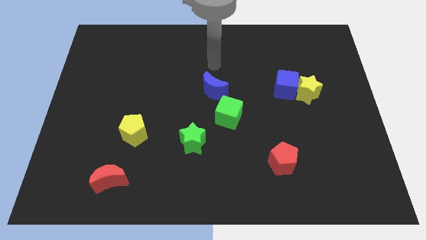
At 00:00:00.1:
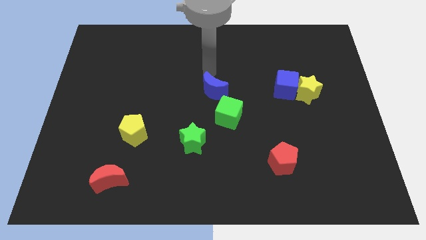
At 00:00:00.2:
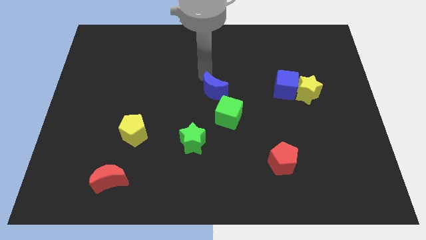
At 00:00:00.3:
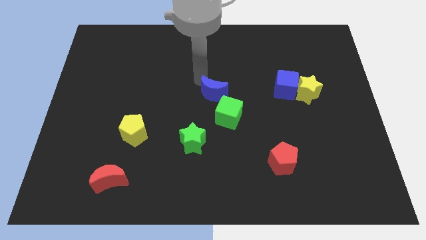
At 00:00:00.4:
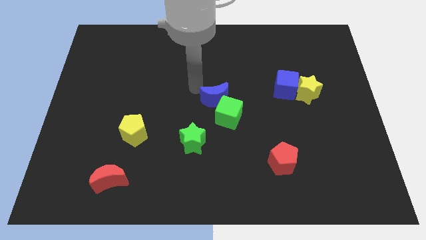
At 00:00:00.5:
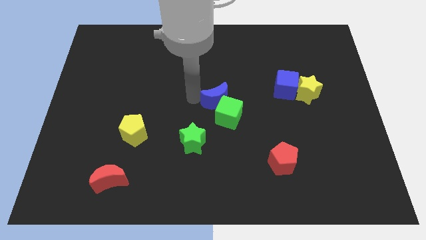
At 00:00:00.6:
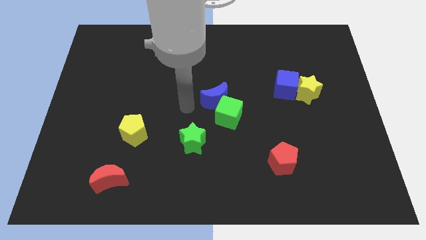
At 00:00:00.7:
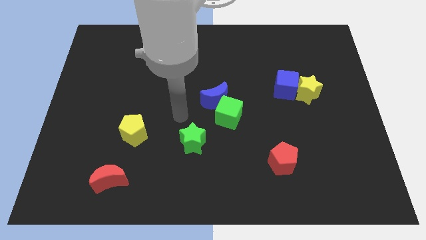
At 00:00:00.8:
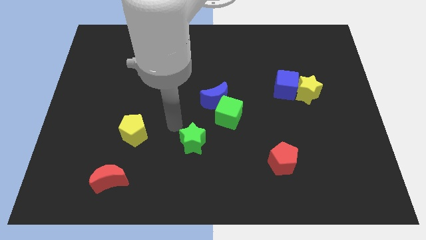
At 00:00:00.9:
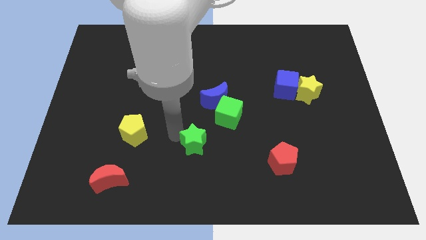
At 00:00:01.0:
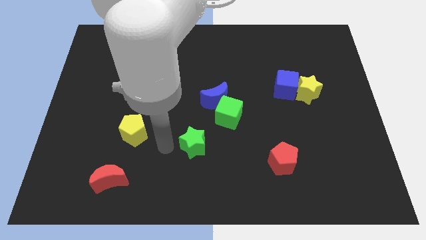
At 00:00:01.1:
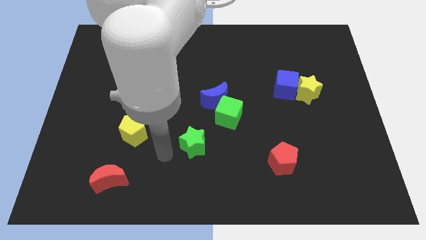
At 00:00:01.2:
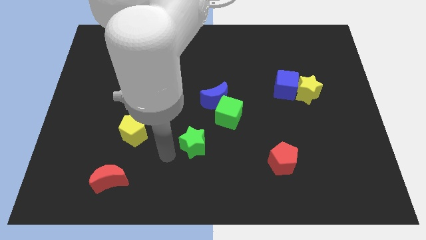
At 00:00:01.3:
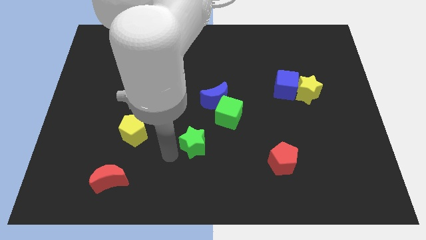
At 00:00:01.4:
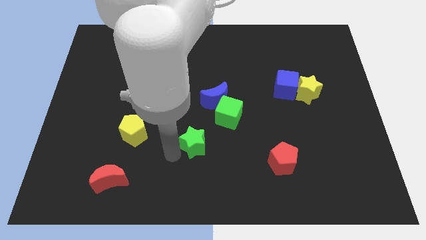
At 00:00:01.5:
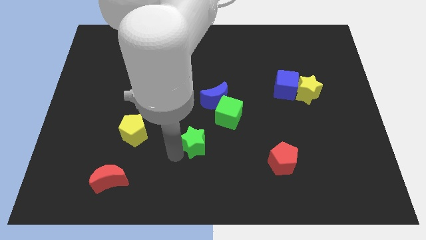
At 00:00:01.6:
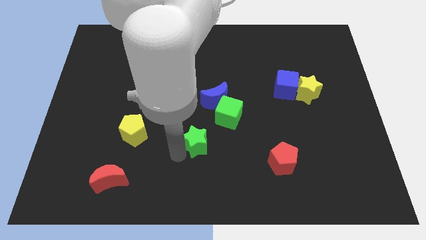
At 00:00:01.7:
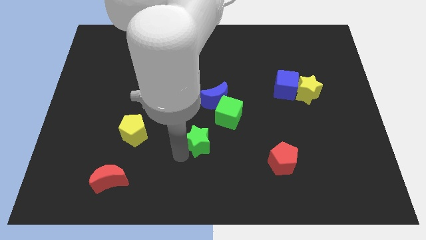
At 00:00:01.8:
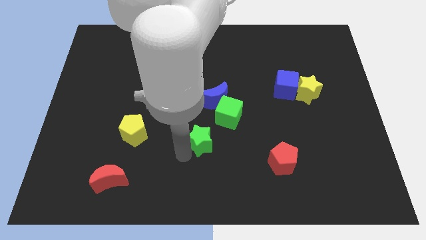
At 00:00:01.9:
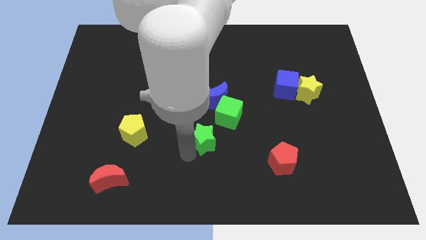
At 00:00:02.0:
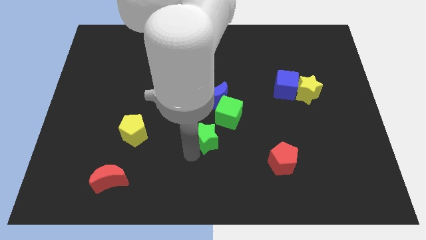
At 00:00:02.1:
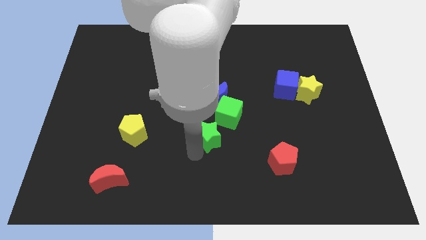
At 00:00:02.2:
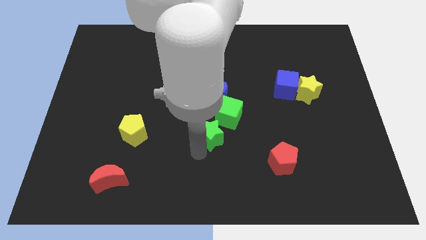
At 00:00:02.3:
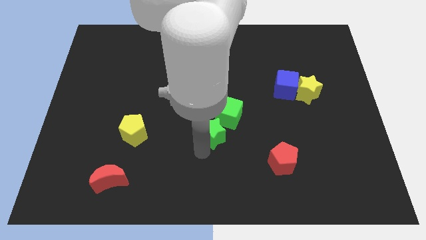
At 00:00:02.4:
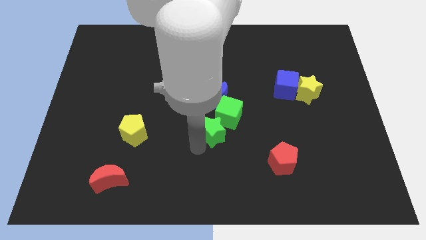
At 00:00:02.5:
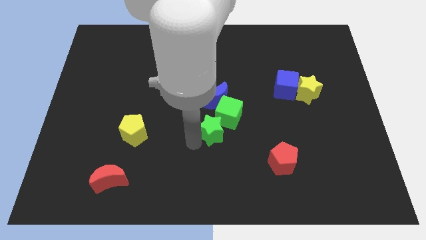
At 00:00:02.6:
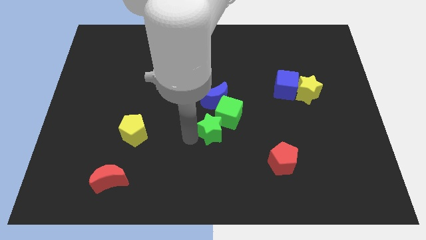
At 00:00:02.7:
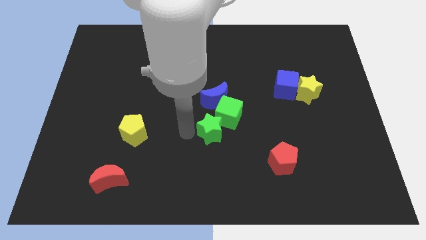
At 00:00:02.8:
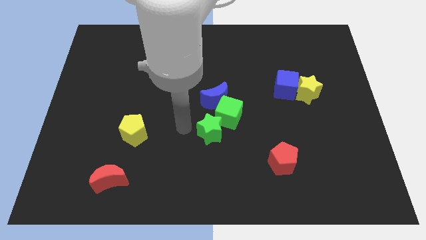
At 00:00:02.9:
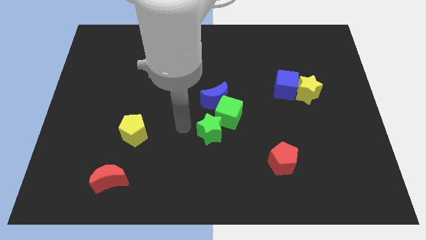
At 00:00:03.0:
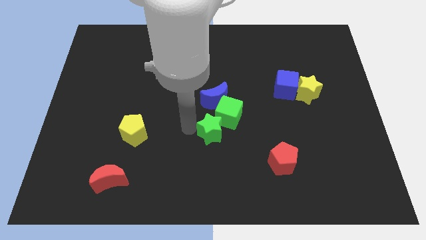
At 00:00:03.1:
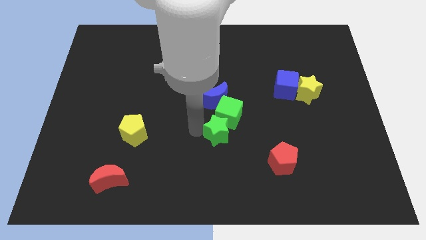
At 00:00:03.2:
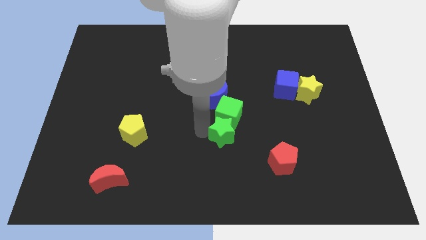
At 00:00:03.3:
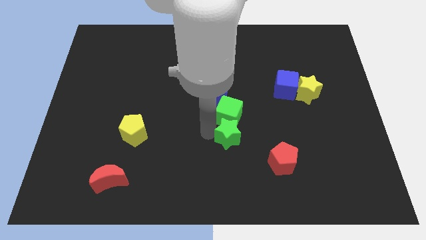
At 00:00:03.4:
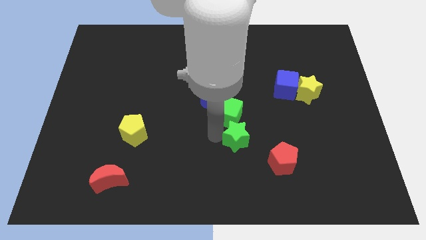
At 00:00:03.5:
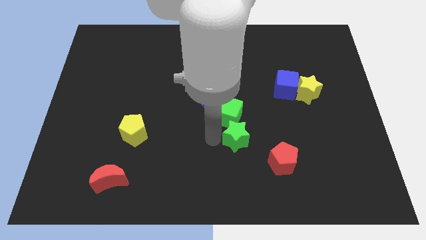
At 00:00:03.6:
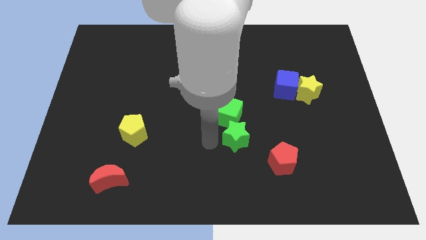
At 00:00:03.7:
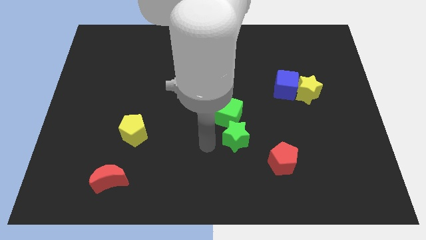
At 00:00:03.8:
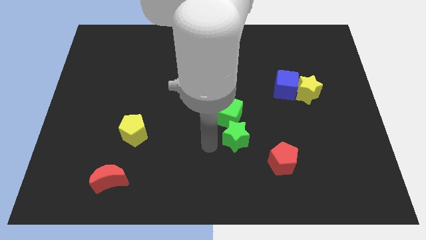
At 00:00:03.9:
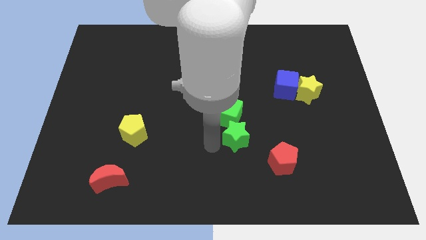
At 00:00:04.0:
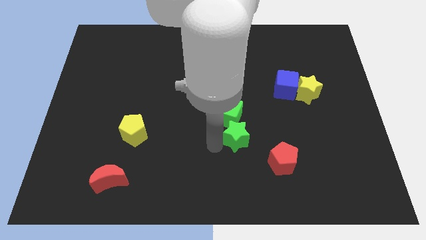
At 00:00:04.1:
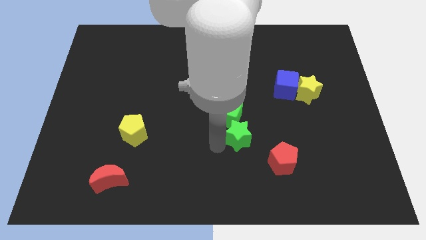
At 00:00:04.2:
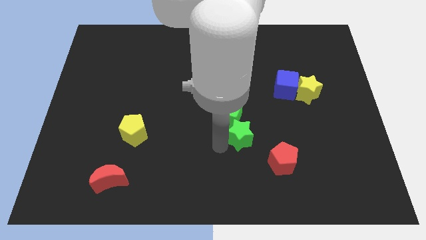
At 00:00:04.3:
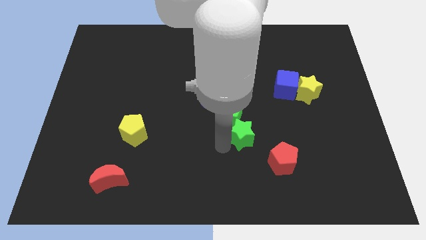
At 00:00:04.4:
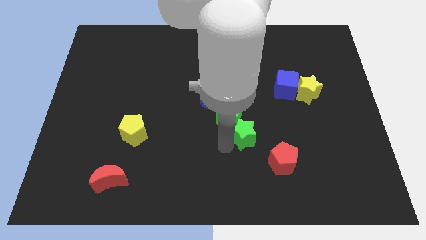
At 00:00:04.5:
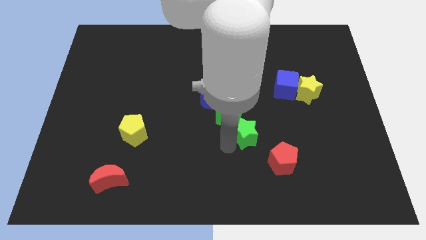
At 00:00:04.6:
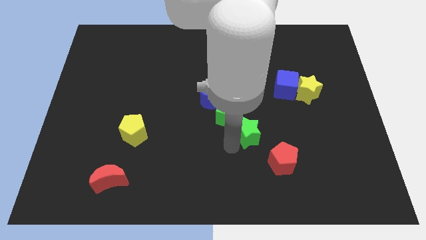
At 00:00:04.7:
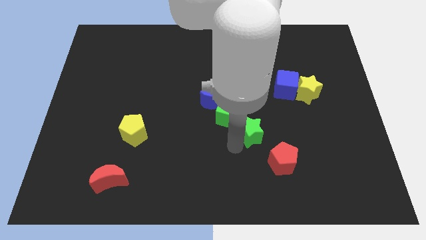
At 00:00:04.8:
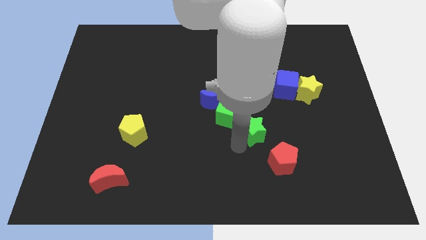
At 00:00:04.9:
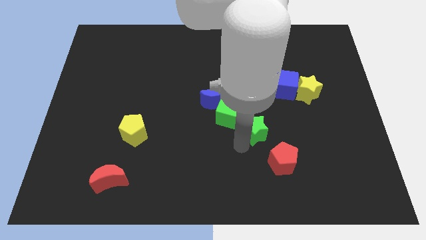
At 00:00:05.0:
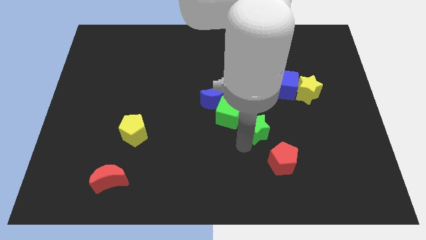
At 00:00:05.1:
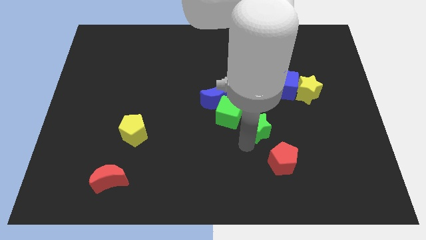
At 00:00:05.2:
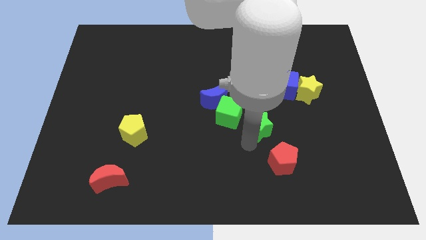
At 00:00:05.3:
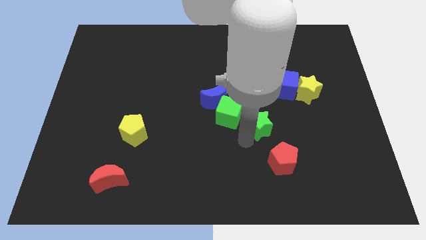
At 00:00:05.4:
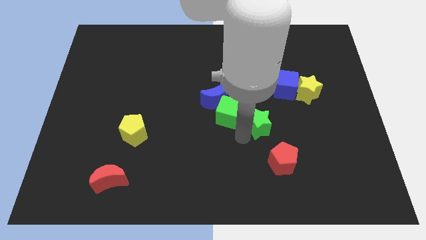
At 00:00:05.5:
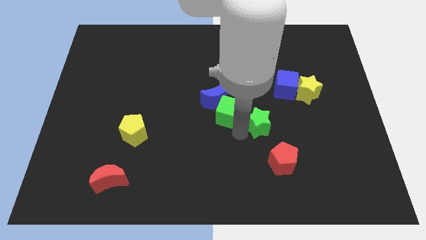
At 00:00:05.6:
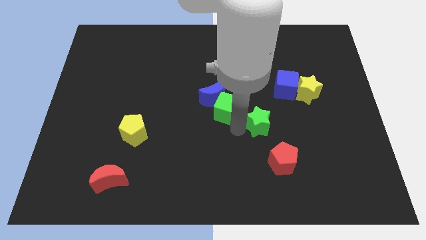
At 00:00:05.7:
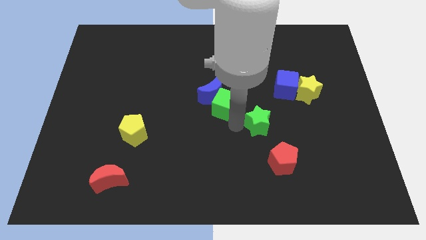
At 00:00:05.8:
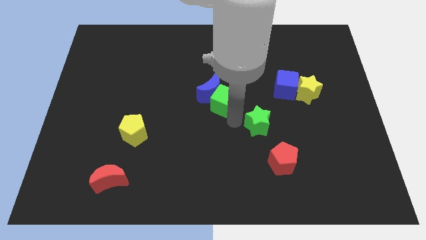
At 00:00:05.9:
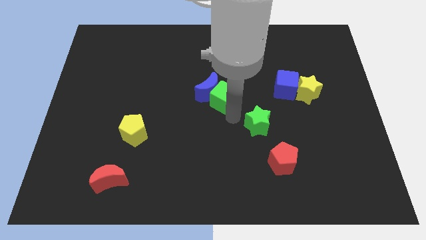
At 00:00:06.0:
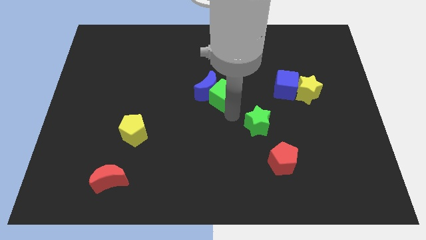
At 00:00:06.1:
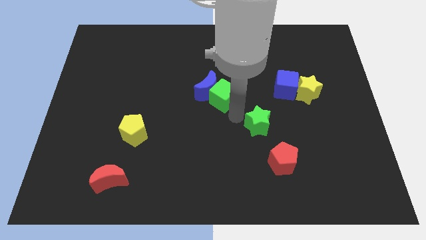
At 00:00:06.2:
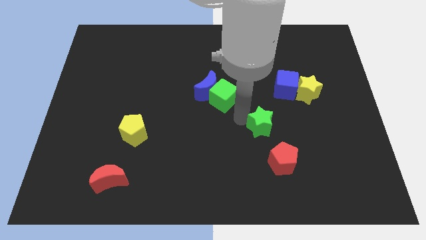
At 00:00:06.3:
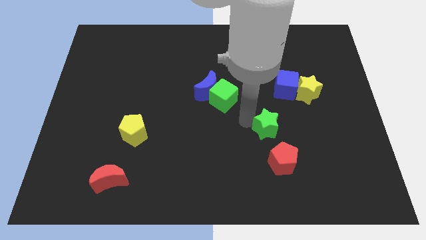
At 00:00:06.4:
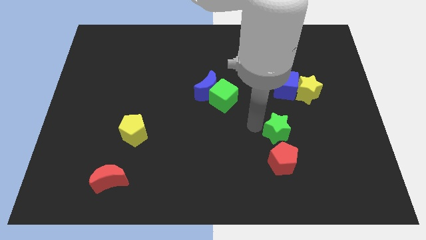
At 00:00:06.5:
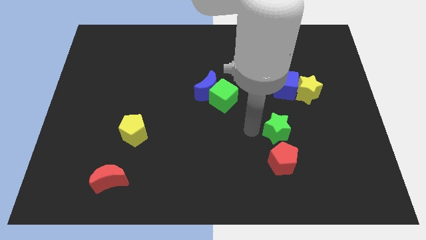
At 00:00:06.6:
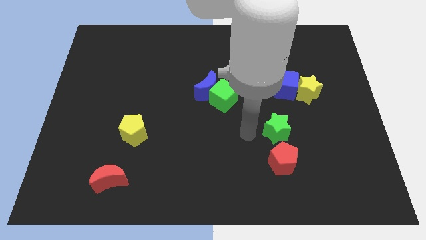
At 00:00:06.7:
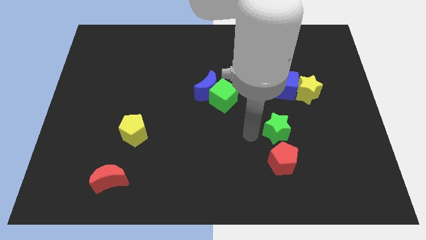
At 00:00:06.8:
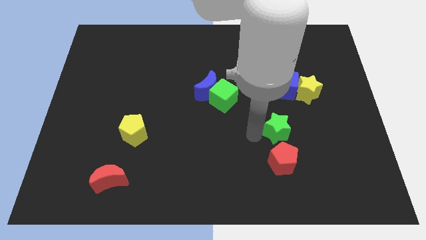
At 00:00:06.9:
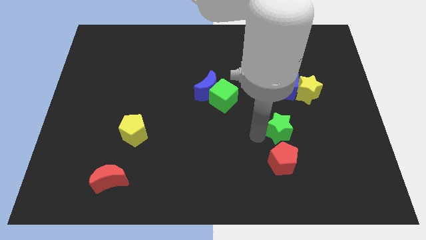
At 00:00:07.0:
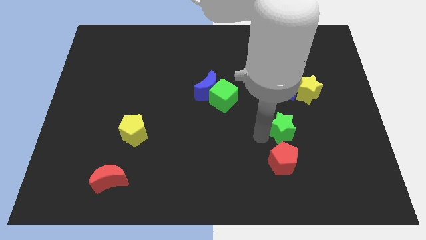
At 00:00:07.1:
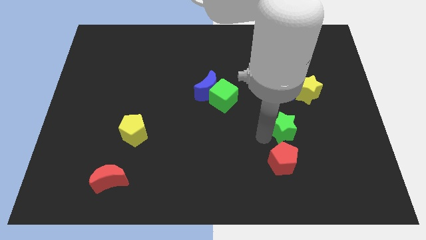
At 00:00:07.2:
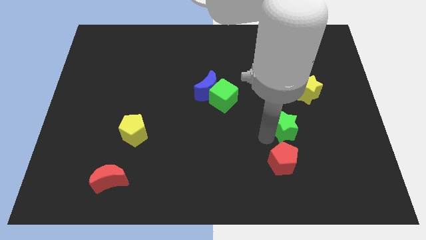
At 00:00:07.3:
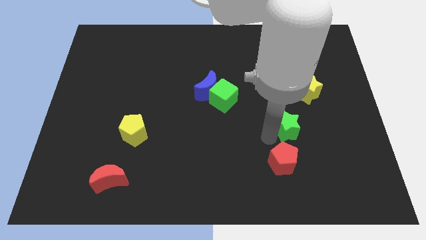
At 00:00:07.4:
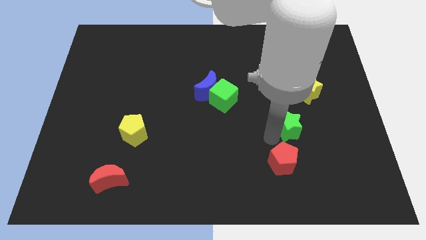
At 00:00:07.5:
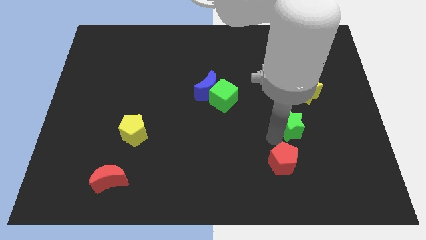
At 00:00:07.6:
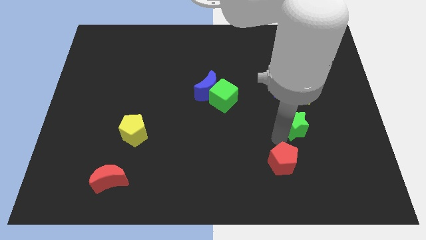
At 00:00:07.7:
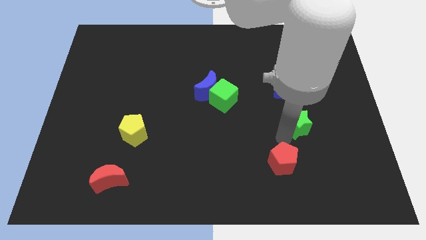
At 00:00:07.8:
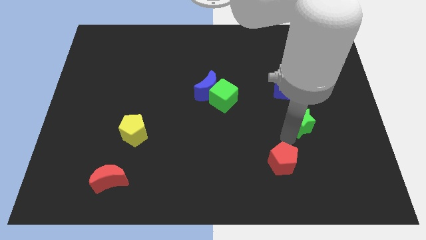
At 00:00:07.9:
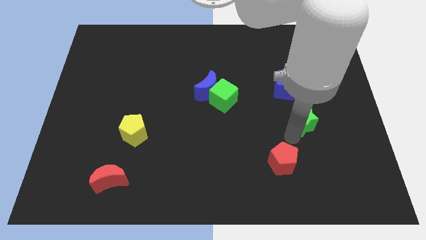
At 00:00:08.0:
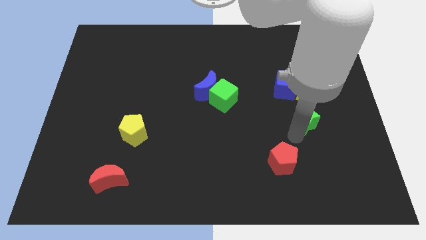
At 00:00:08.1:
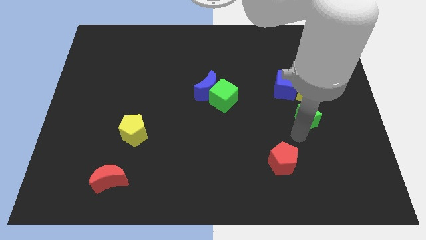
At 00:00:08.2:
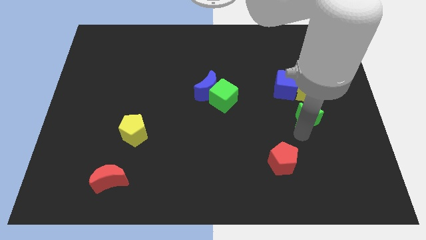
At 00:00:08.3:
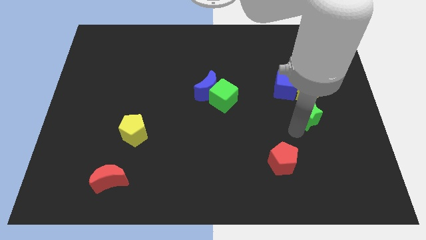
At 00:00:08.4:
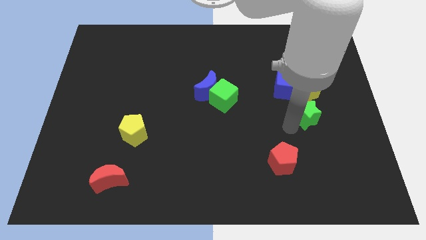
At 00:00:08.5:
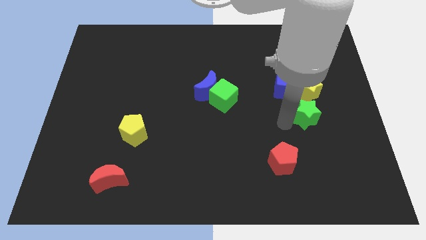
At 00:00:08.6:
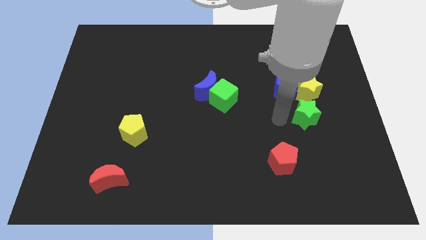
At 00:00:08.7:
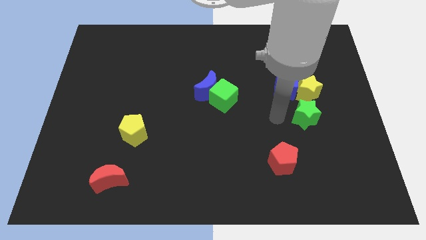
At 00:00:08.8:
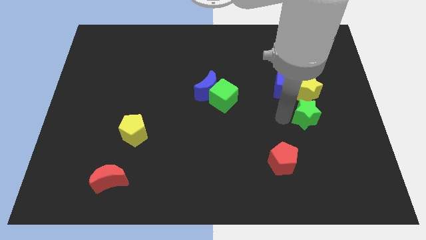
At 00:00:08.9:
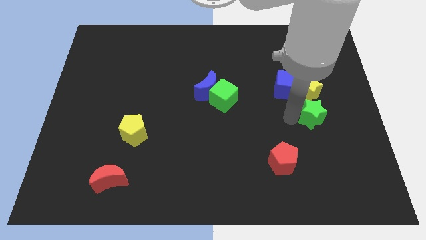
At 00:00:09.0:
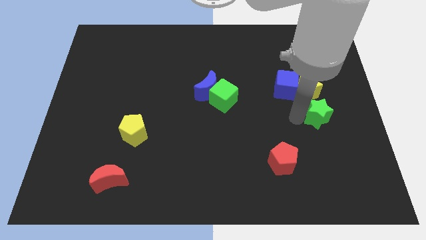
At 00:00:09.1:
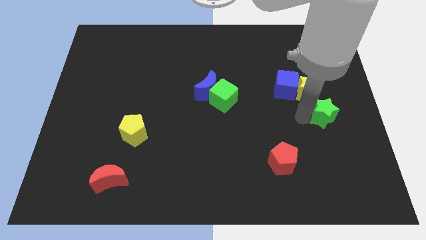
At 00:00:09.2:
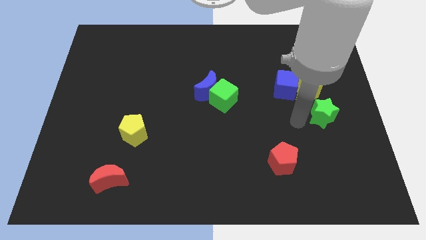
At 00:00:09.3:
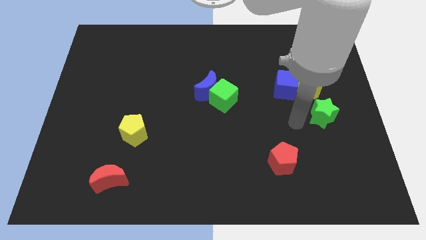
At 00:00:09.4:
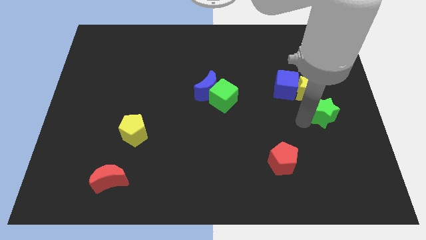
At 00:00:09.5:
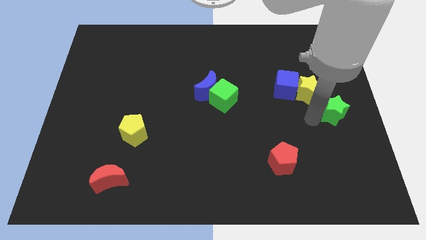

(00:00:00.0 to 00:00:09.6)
move the green star to the right side
